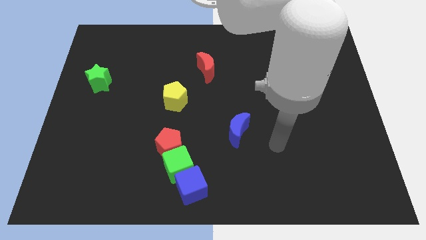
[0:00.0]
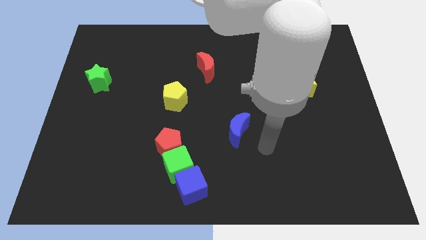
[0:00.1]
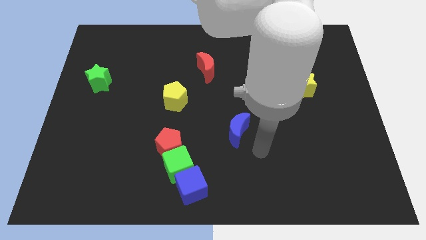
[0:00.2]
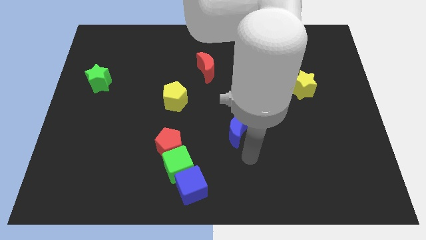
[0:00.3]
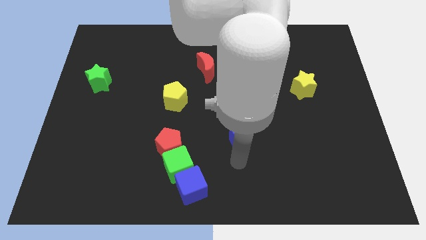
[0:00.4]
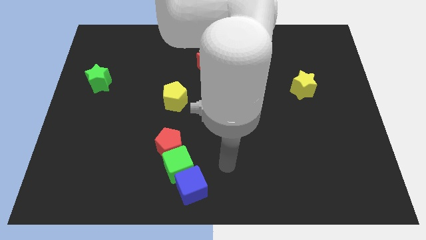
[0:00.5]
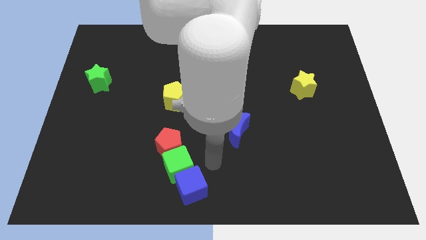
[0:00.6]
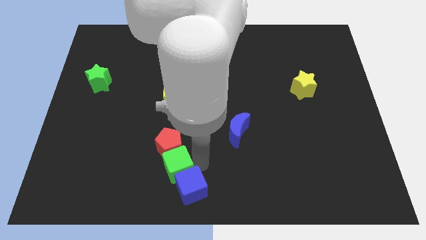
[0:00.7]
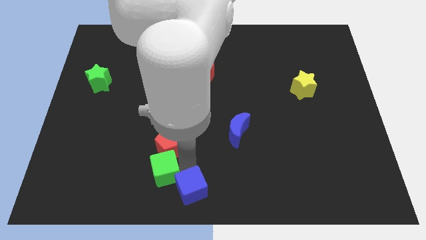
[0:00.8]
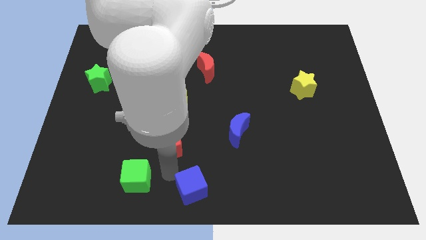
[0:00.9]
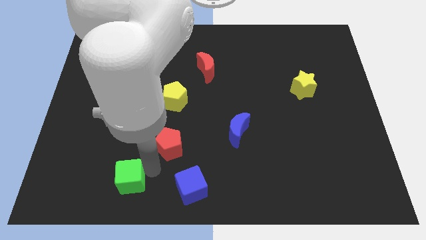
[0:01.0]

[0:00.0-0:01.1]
pull the red pentagon apart from the green cube

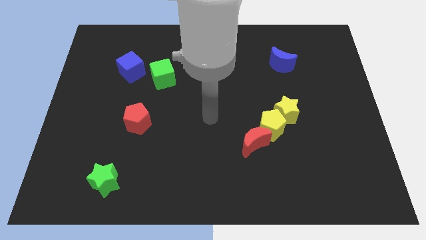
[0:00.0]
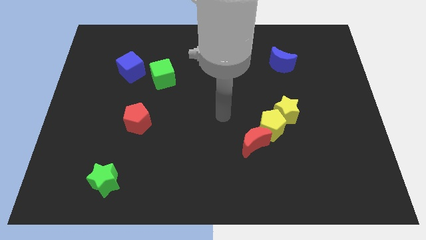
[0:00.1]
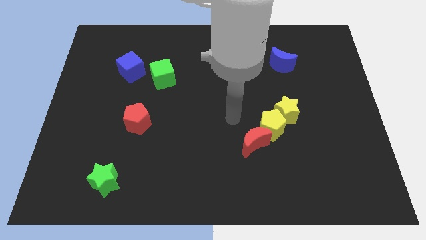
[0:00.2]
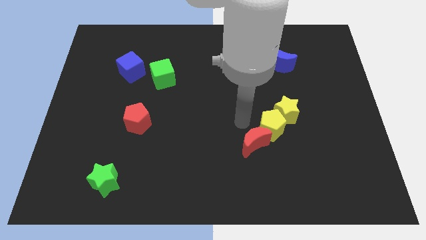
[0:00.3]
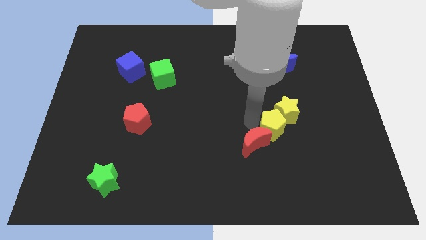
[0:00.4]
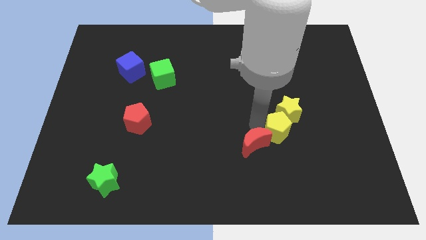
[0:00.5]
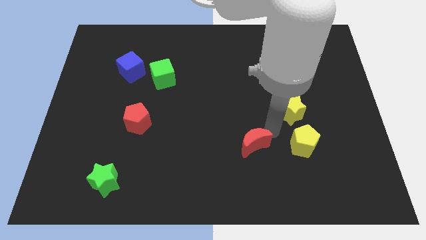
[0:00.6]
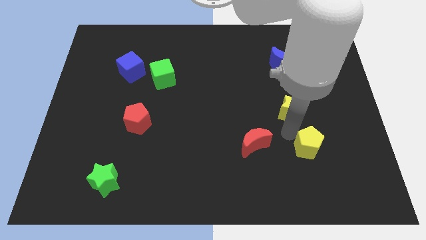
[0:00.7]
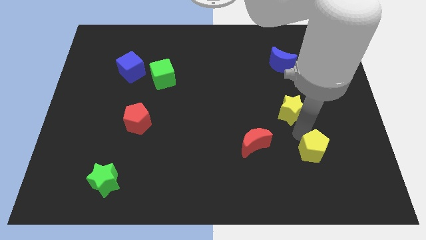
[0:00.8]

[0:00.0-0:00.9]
pull the yellow star apart from the yellow pentagon

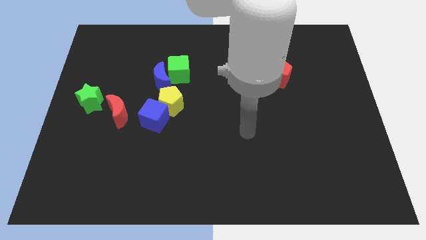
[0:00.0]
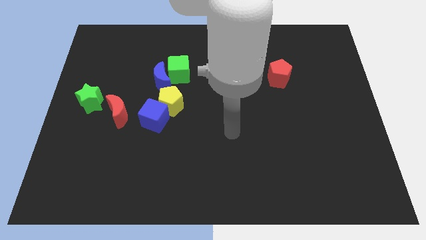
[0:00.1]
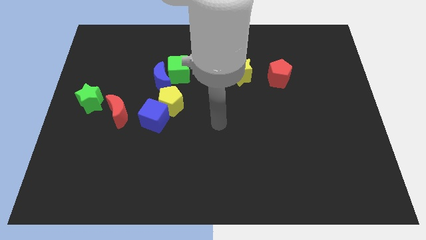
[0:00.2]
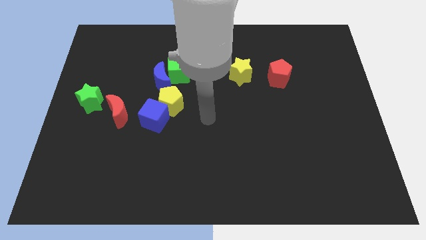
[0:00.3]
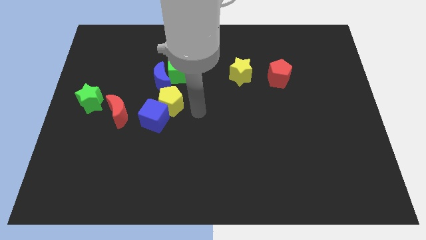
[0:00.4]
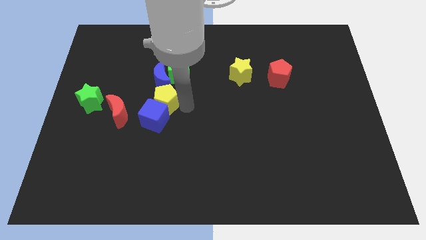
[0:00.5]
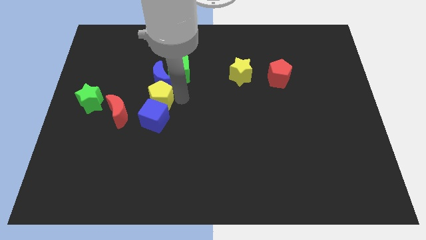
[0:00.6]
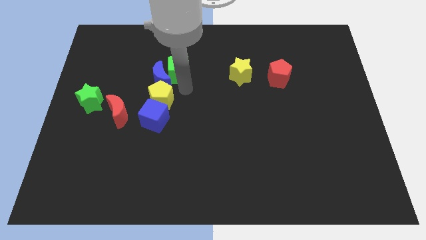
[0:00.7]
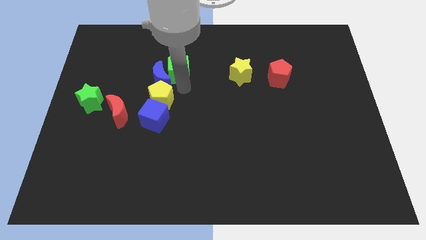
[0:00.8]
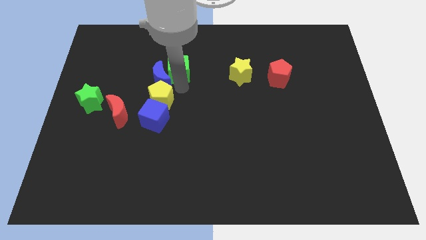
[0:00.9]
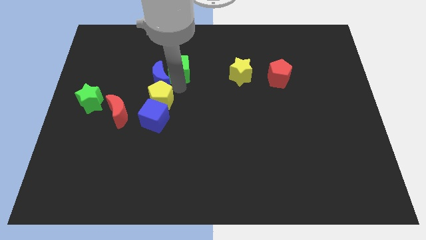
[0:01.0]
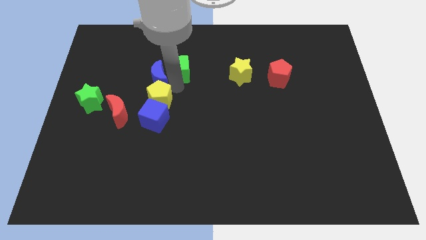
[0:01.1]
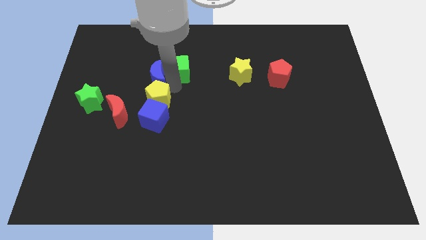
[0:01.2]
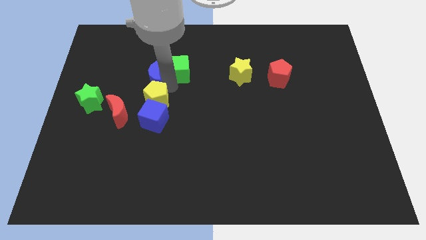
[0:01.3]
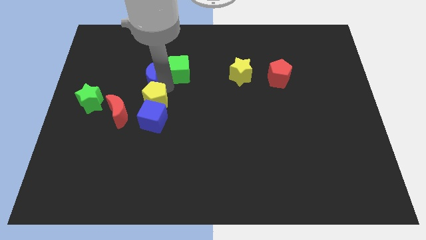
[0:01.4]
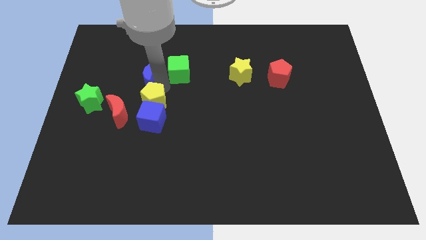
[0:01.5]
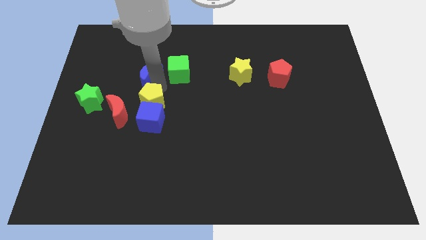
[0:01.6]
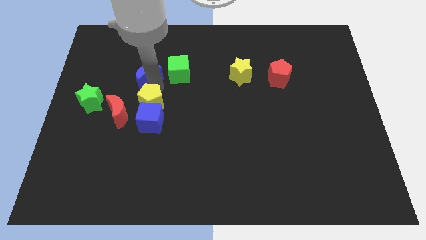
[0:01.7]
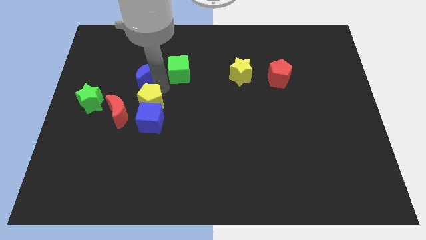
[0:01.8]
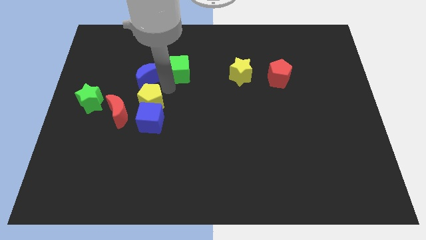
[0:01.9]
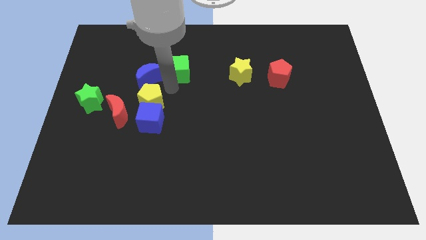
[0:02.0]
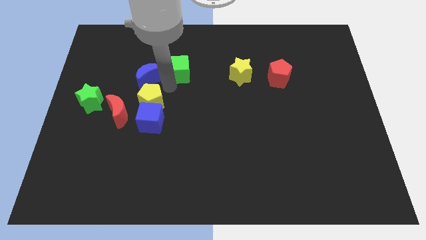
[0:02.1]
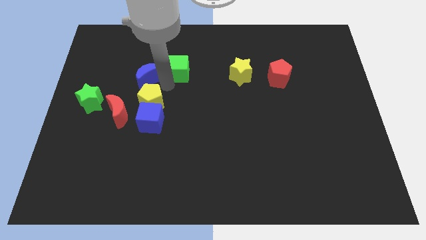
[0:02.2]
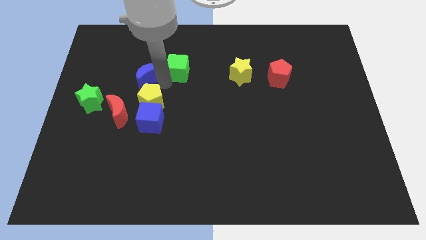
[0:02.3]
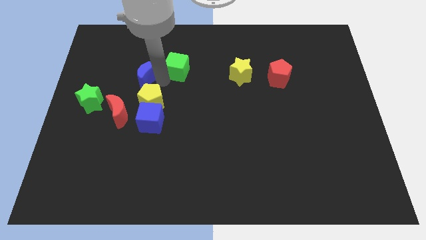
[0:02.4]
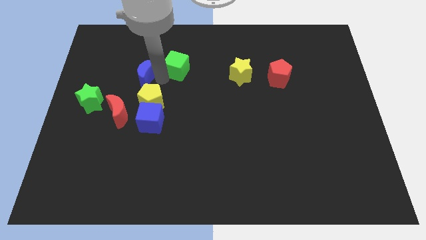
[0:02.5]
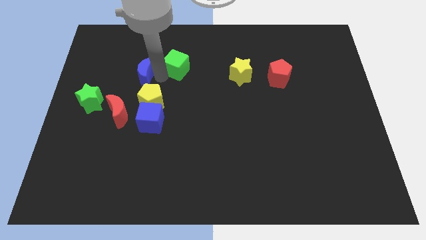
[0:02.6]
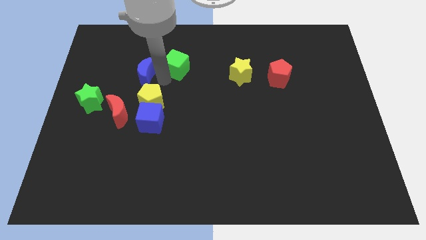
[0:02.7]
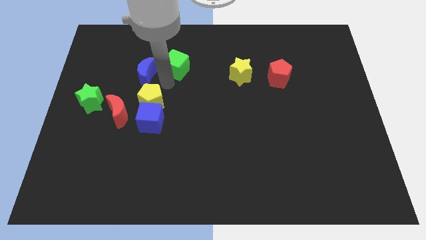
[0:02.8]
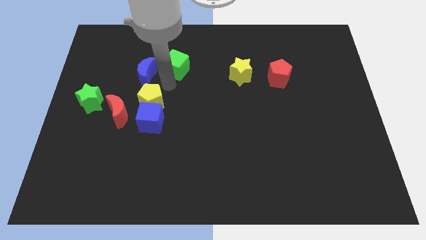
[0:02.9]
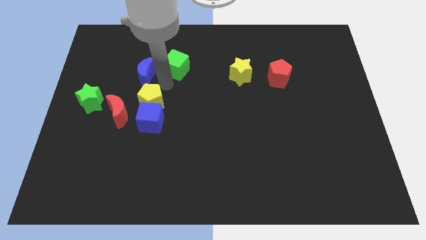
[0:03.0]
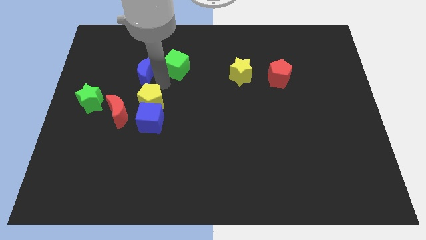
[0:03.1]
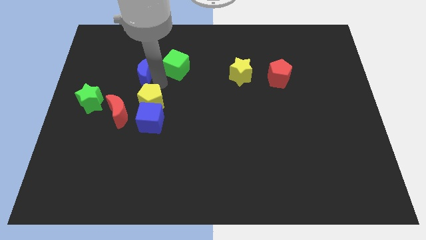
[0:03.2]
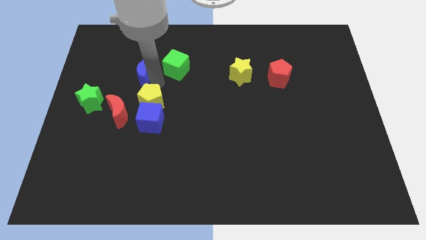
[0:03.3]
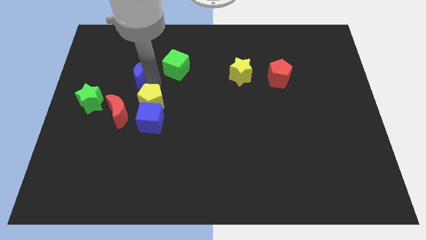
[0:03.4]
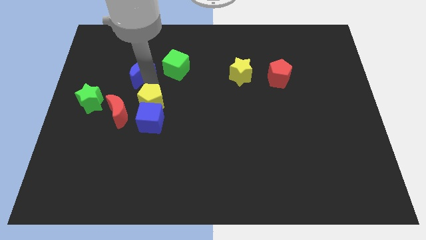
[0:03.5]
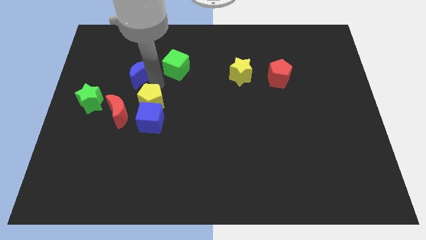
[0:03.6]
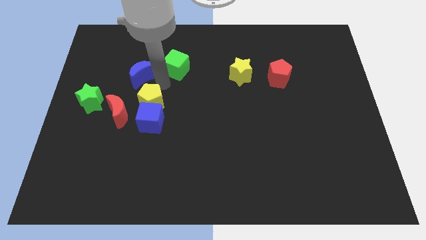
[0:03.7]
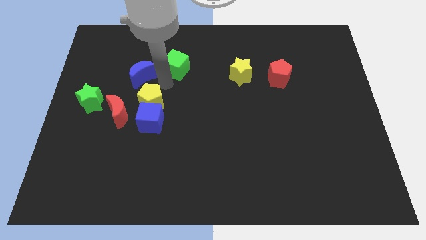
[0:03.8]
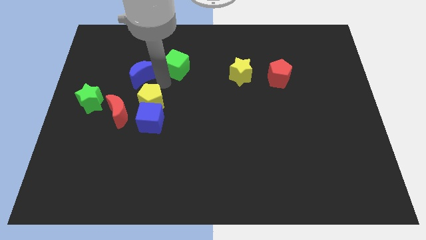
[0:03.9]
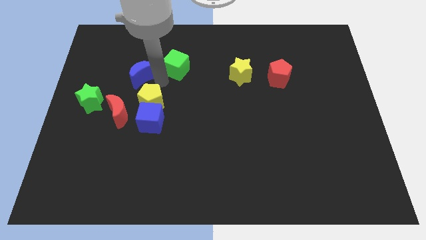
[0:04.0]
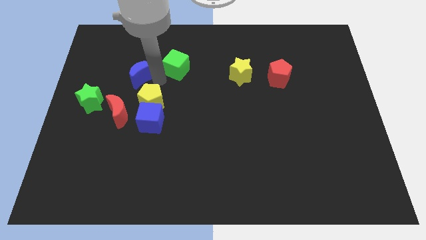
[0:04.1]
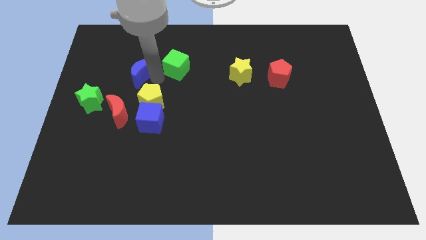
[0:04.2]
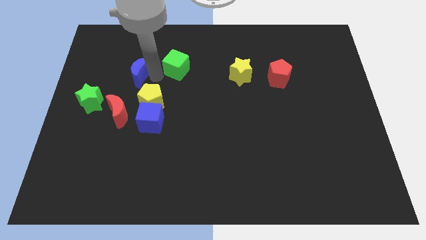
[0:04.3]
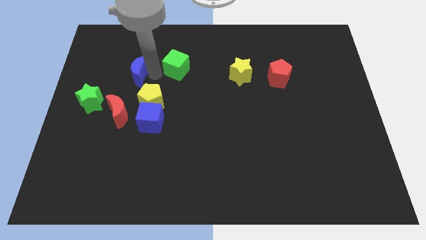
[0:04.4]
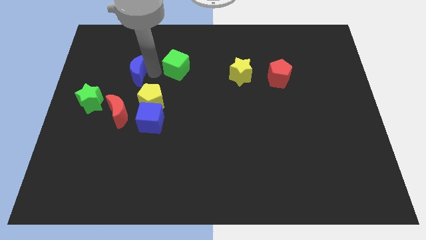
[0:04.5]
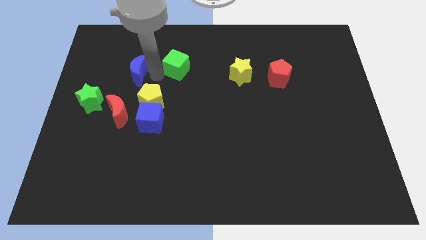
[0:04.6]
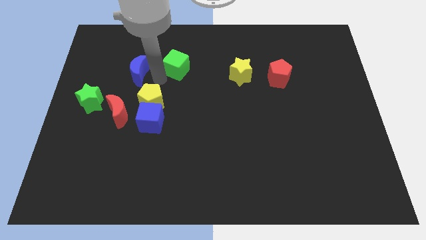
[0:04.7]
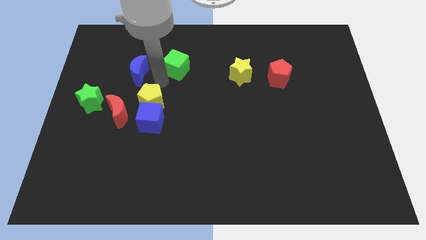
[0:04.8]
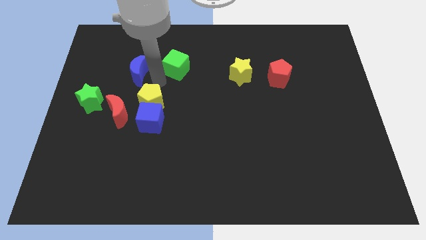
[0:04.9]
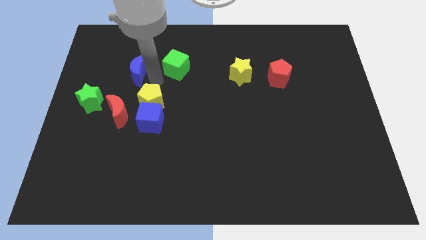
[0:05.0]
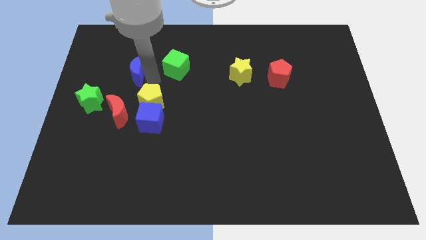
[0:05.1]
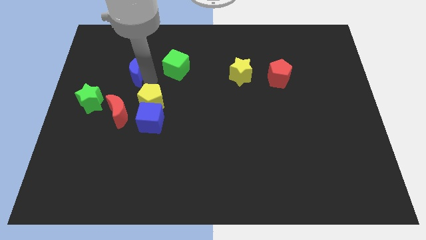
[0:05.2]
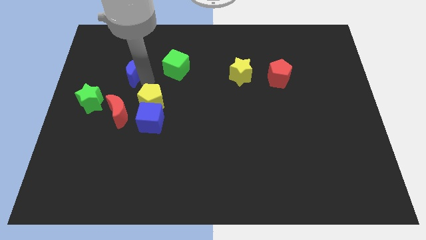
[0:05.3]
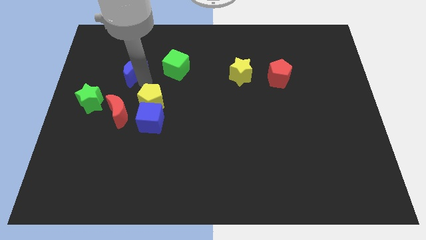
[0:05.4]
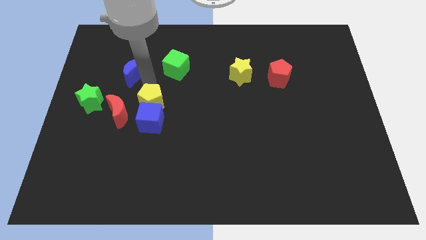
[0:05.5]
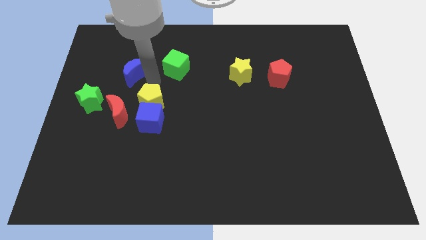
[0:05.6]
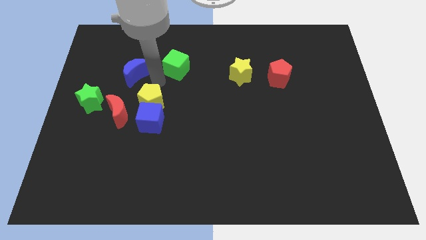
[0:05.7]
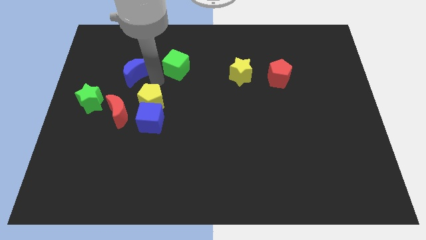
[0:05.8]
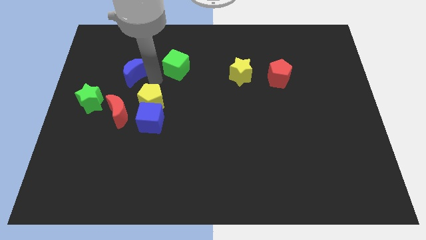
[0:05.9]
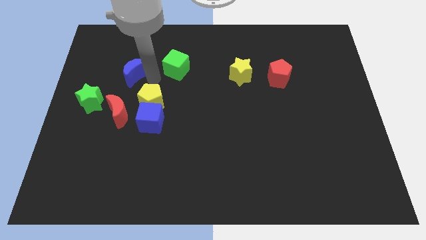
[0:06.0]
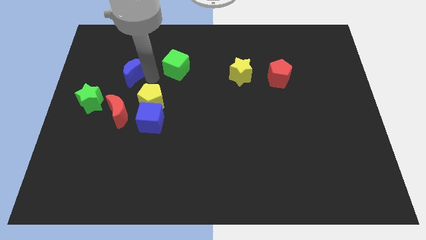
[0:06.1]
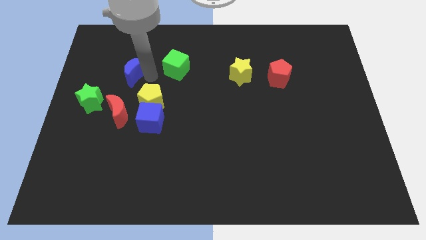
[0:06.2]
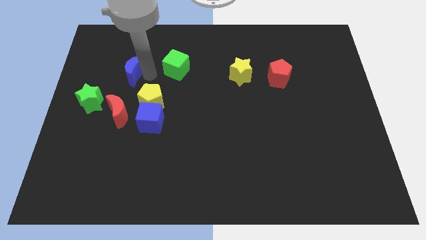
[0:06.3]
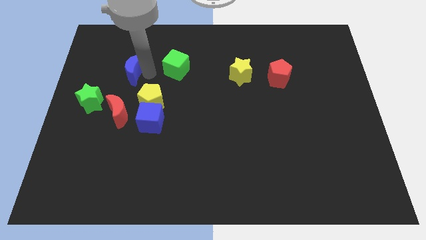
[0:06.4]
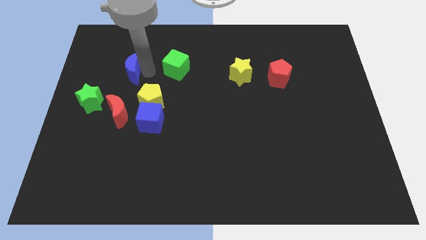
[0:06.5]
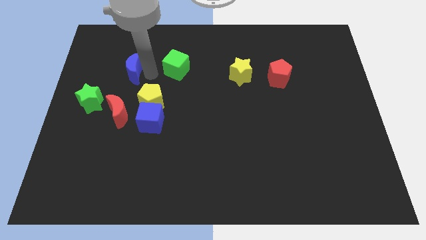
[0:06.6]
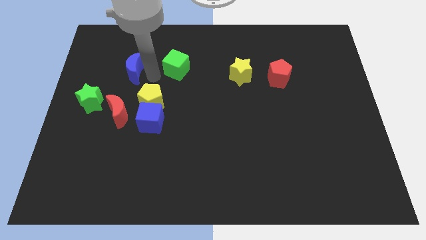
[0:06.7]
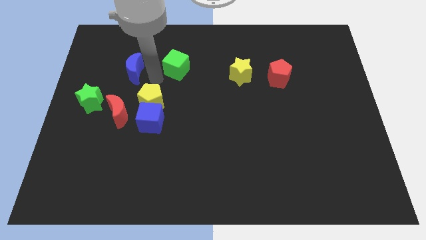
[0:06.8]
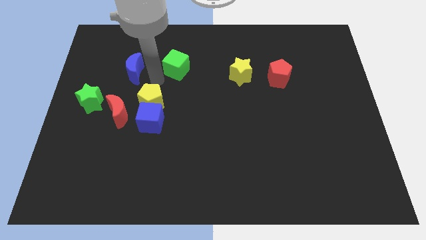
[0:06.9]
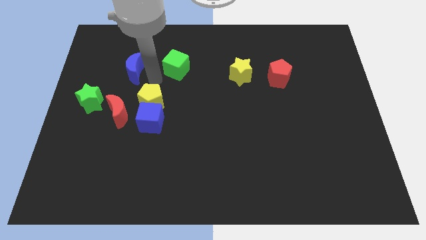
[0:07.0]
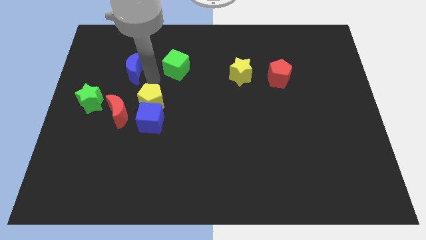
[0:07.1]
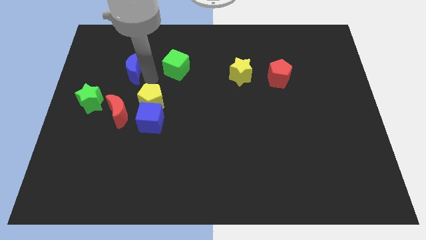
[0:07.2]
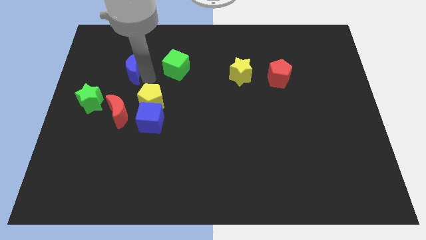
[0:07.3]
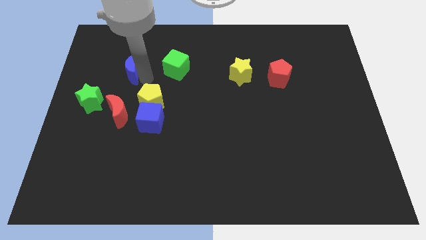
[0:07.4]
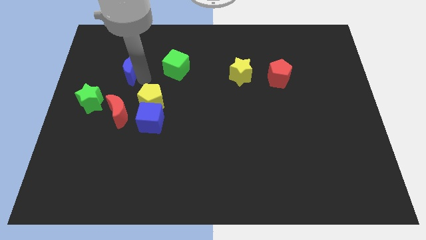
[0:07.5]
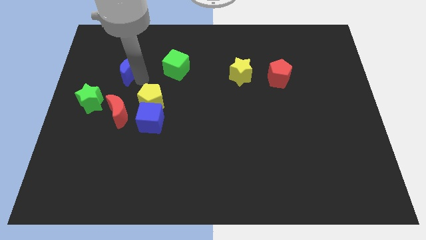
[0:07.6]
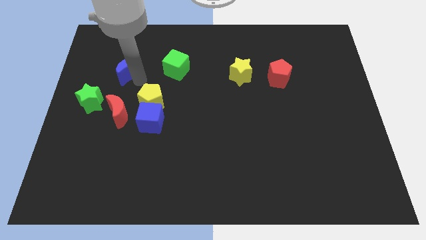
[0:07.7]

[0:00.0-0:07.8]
pull the blue moon apart from the green cube and yellow pentagon
